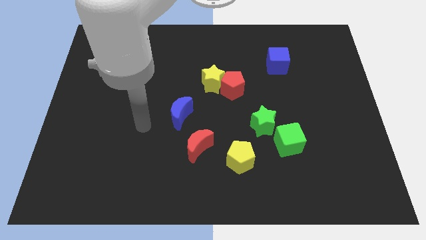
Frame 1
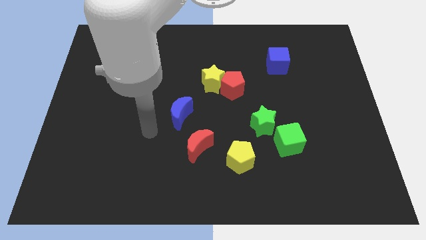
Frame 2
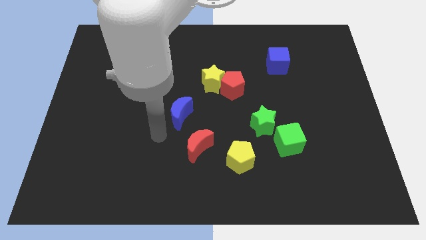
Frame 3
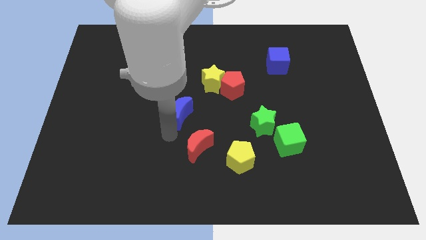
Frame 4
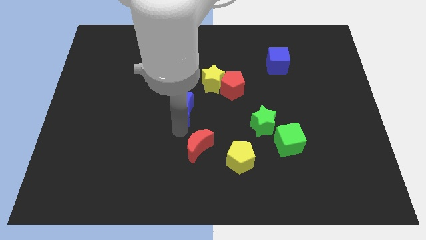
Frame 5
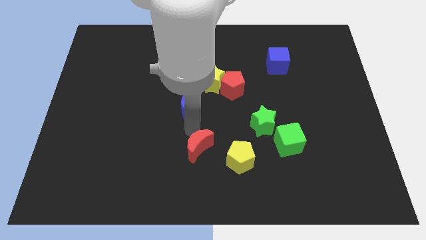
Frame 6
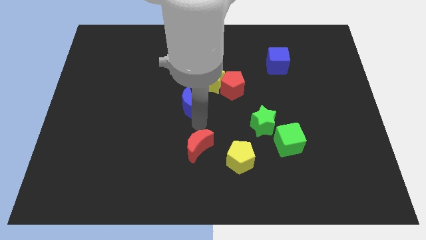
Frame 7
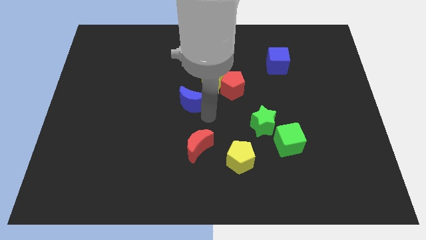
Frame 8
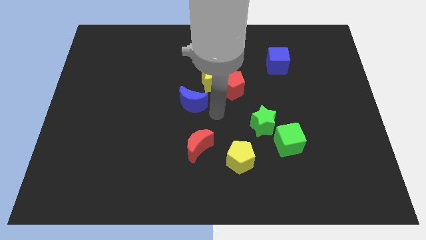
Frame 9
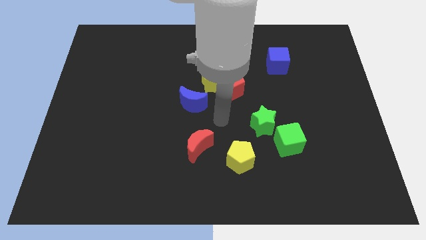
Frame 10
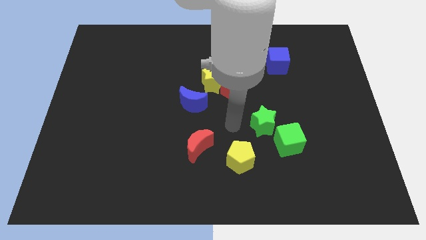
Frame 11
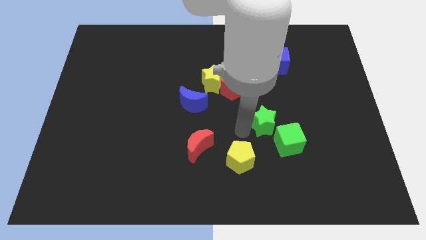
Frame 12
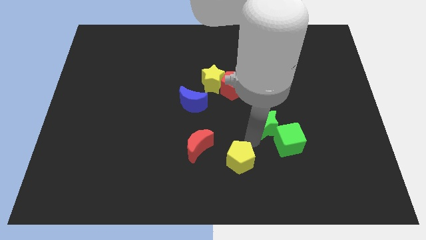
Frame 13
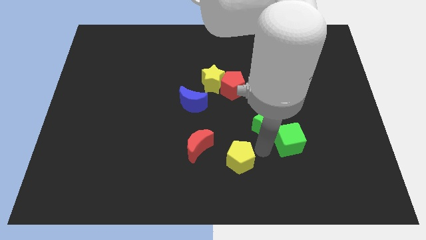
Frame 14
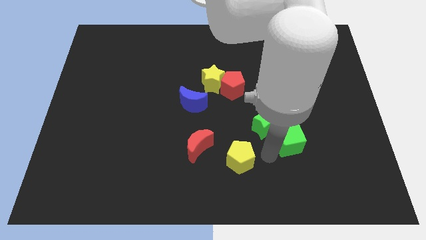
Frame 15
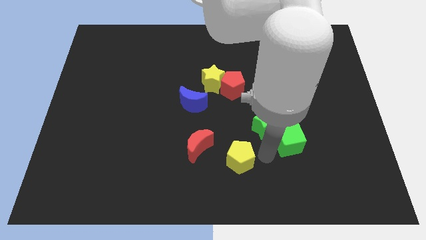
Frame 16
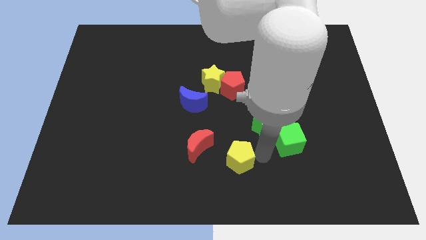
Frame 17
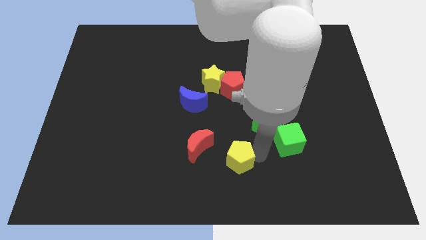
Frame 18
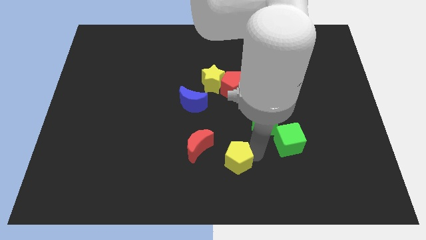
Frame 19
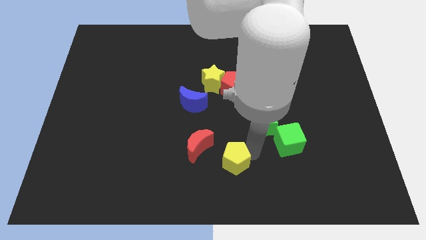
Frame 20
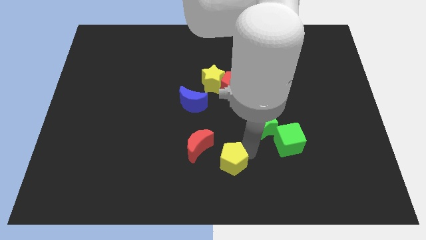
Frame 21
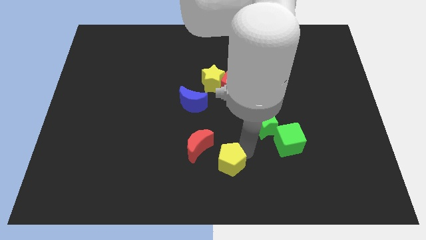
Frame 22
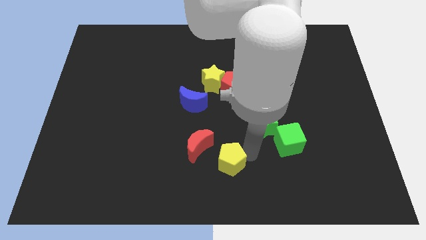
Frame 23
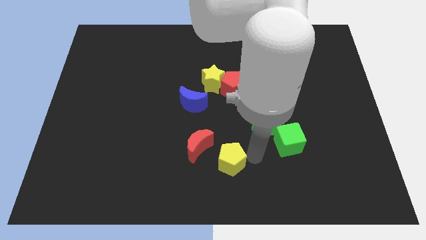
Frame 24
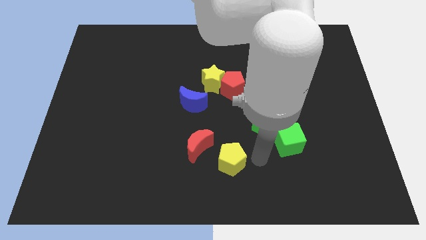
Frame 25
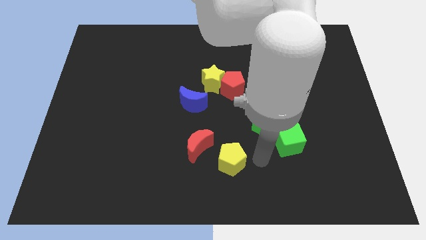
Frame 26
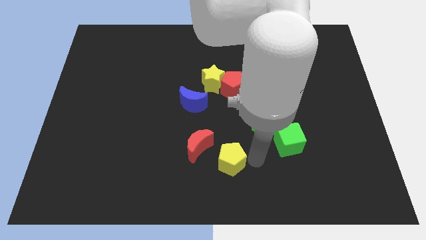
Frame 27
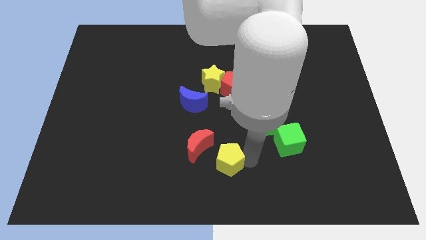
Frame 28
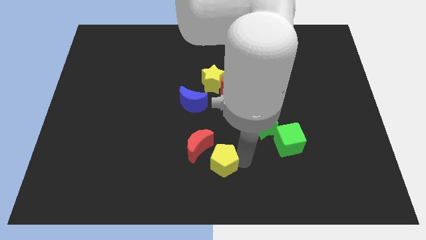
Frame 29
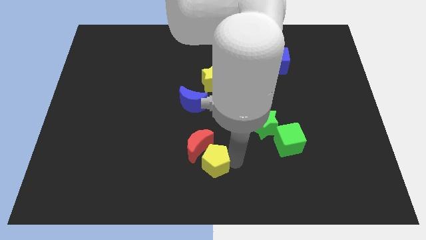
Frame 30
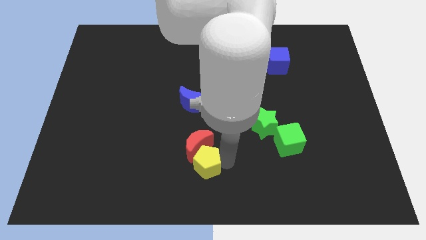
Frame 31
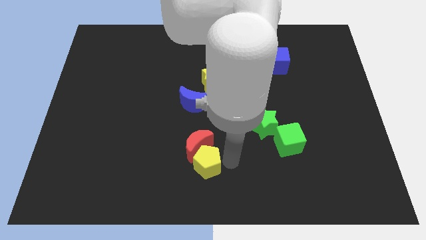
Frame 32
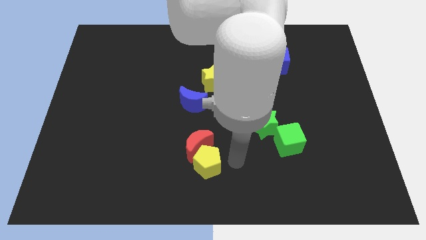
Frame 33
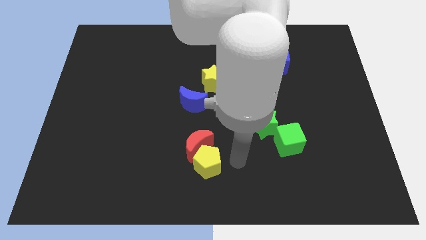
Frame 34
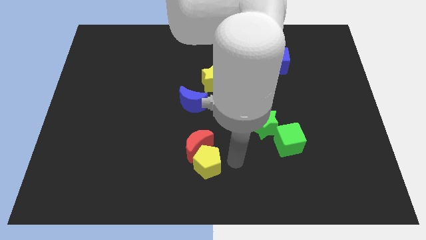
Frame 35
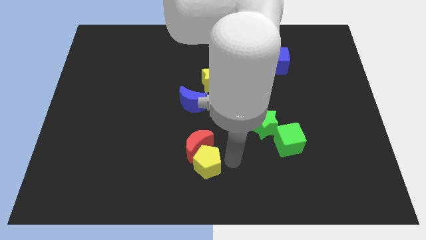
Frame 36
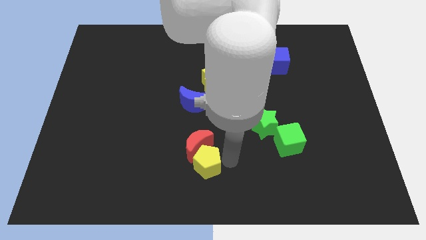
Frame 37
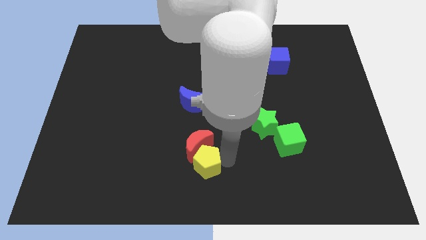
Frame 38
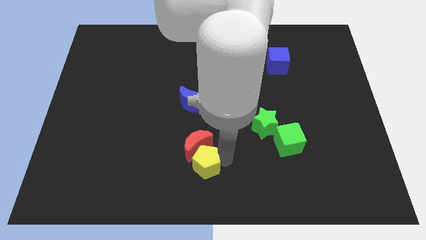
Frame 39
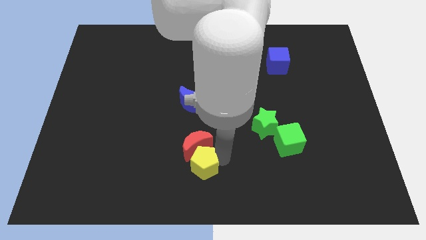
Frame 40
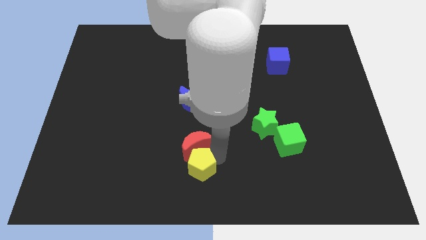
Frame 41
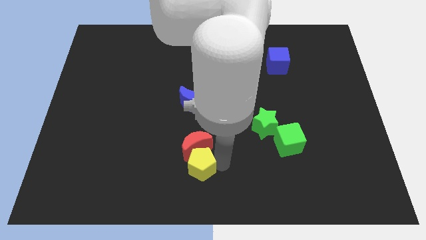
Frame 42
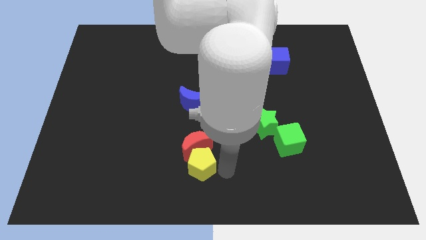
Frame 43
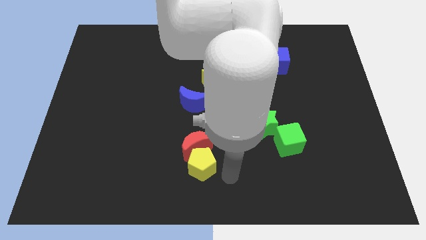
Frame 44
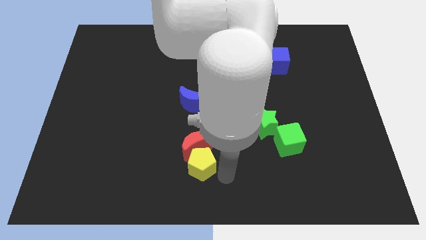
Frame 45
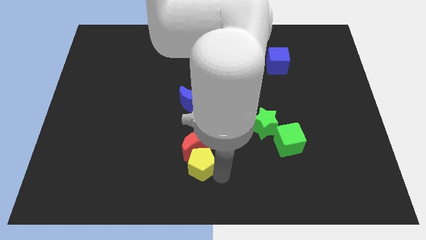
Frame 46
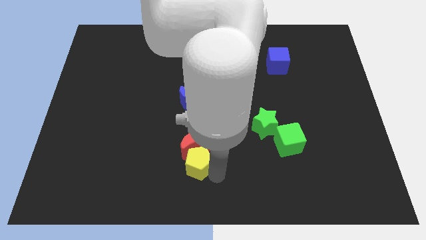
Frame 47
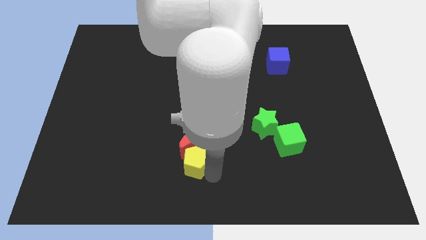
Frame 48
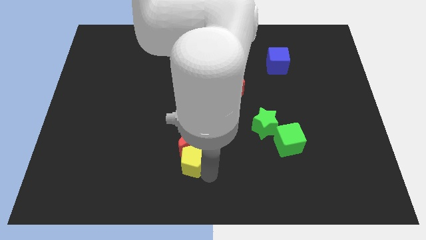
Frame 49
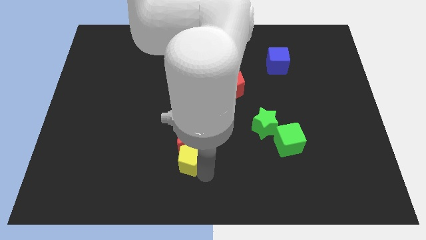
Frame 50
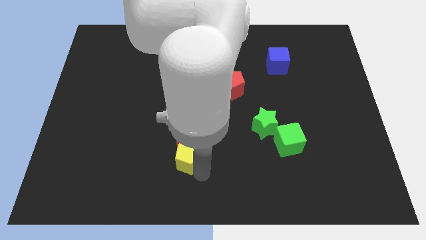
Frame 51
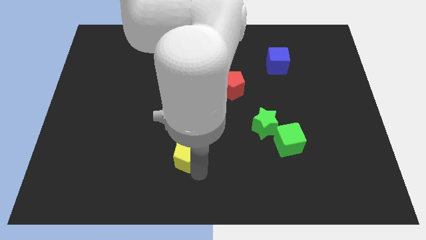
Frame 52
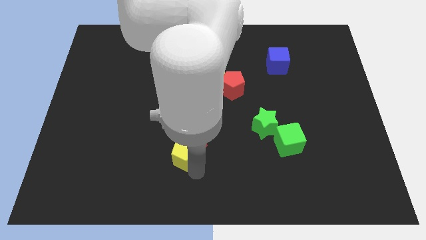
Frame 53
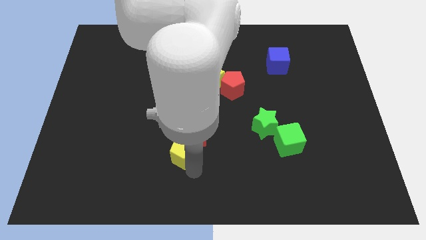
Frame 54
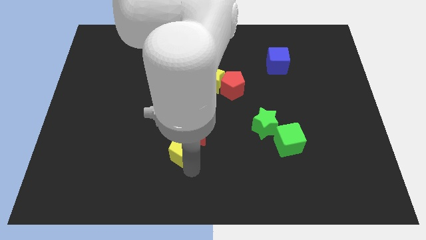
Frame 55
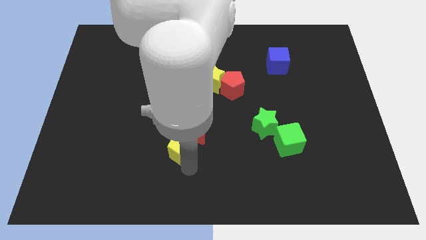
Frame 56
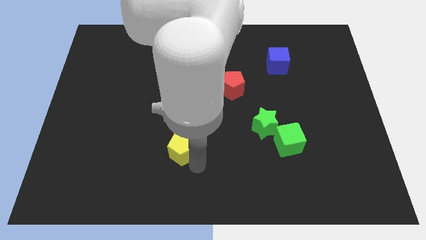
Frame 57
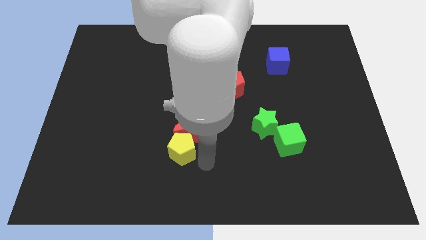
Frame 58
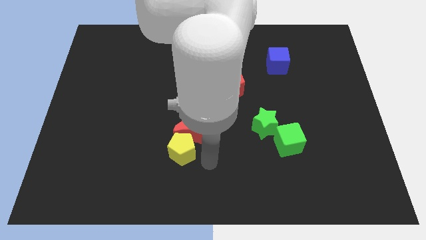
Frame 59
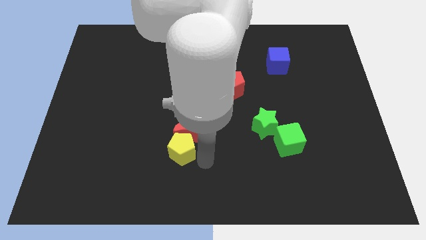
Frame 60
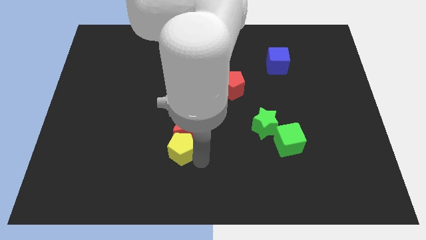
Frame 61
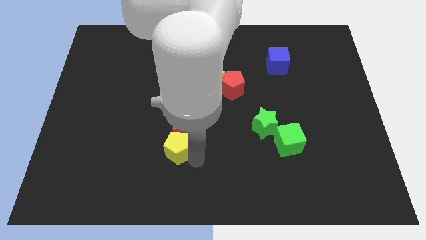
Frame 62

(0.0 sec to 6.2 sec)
push the yellow pentagon left of the red moon

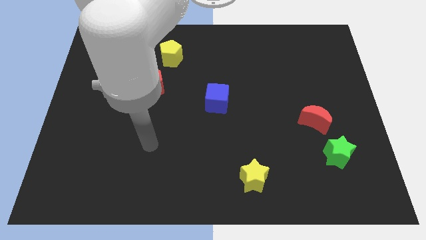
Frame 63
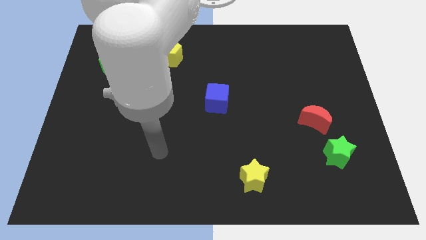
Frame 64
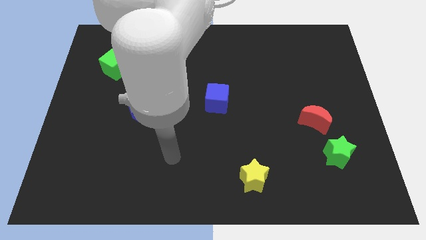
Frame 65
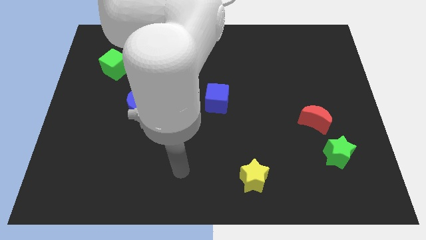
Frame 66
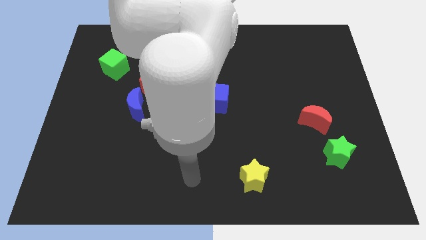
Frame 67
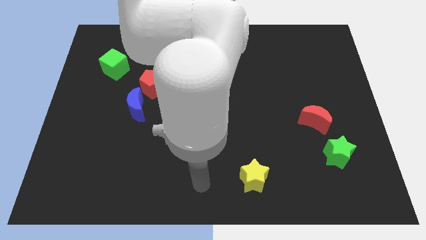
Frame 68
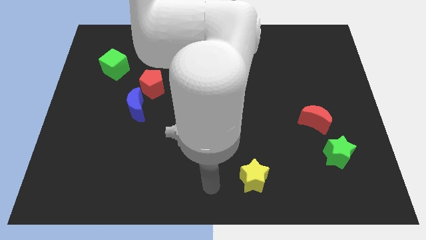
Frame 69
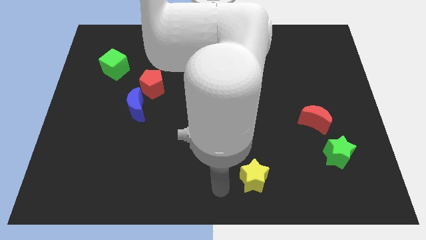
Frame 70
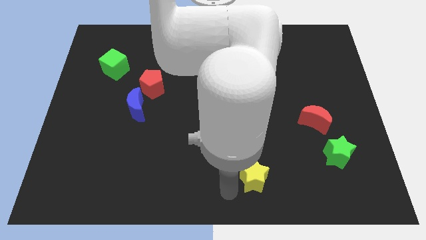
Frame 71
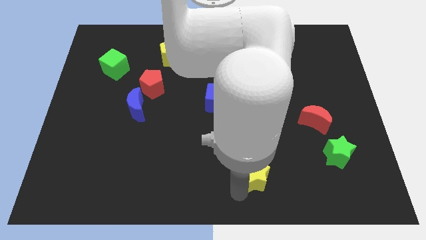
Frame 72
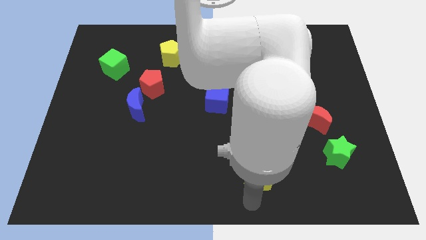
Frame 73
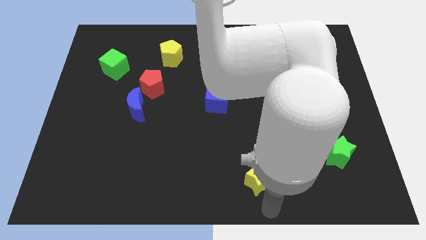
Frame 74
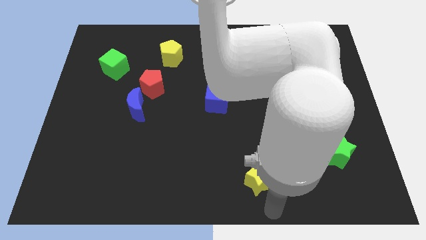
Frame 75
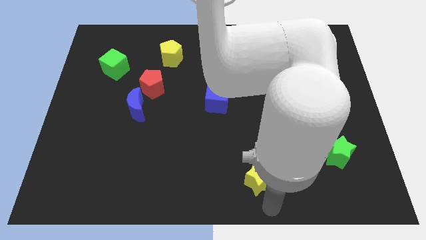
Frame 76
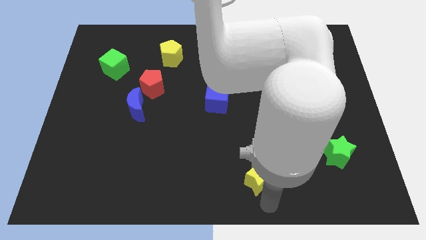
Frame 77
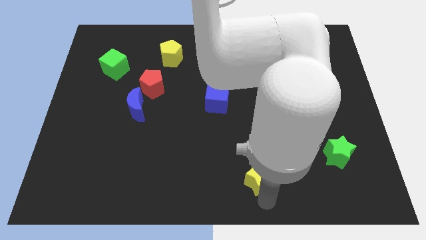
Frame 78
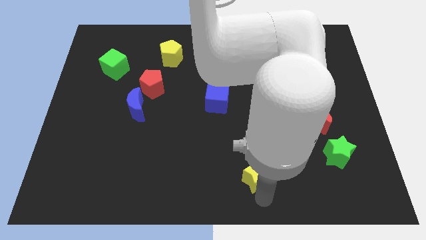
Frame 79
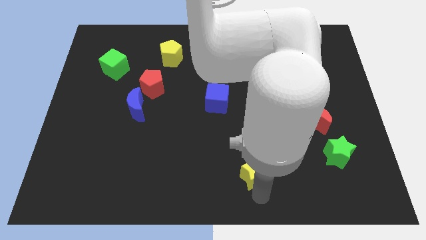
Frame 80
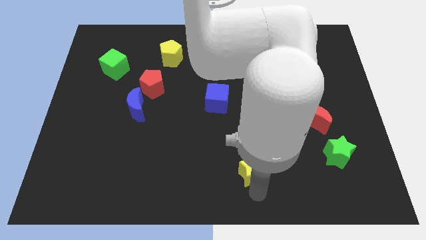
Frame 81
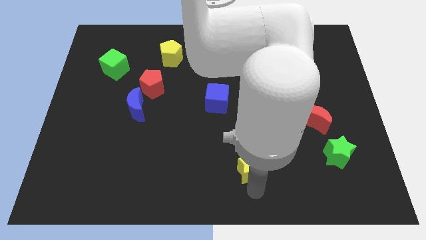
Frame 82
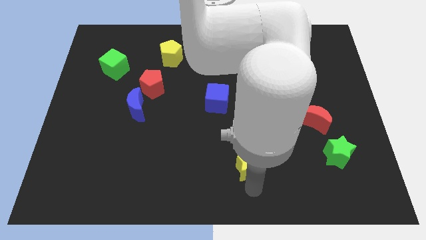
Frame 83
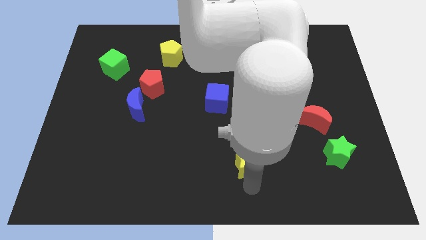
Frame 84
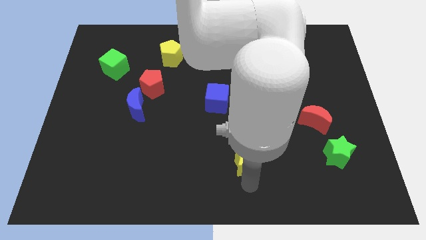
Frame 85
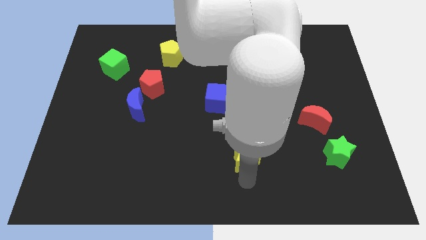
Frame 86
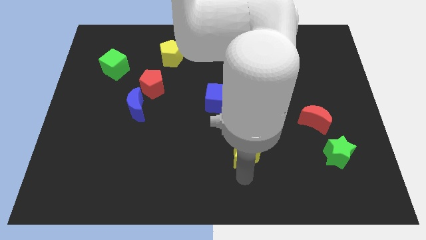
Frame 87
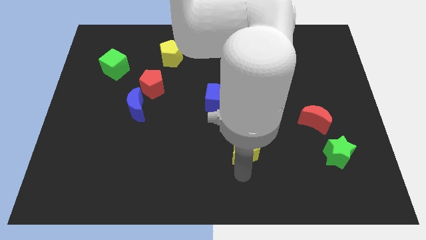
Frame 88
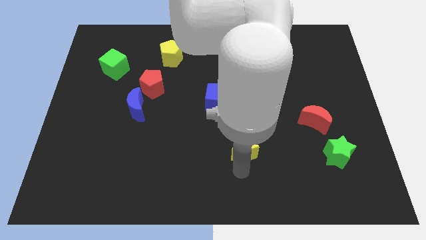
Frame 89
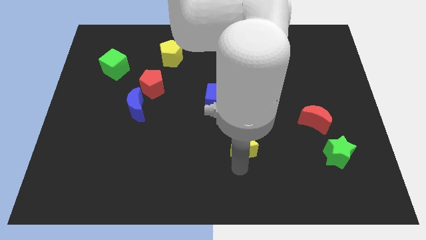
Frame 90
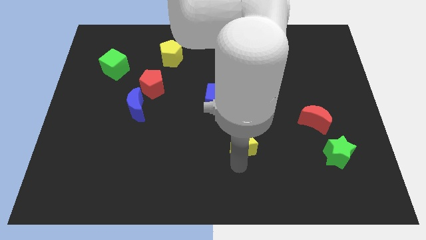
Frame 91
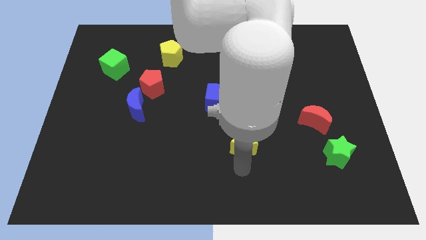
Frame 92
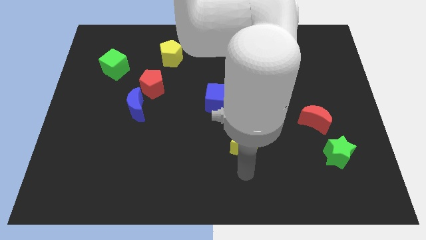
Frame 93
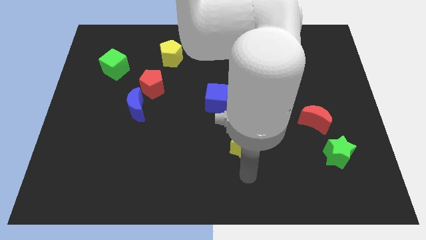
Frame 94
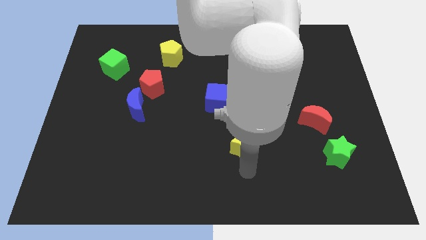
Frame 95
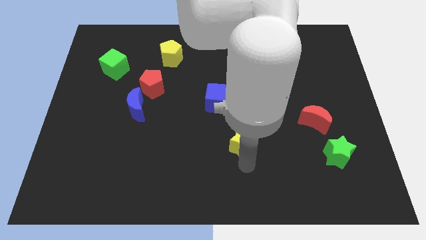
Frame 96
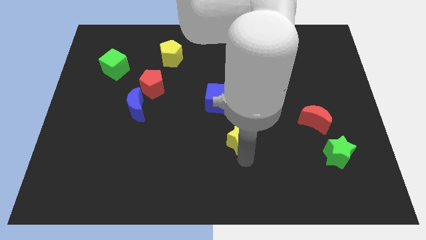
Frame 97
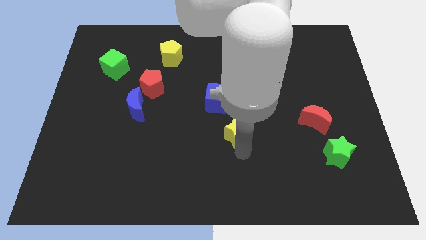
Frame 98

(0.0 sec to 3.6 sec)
slide the yellow star to the bottom right of the blue cube
